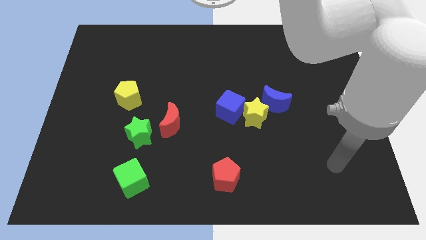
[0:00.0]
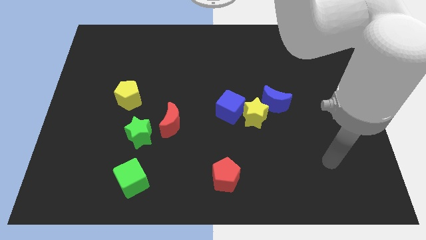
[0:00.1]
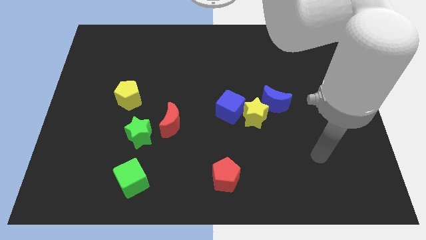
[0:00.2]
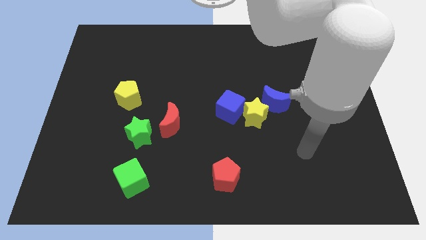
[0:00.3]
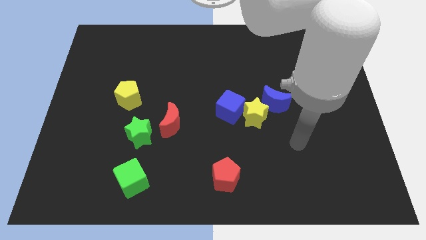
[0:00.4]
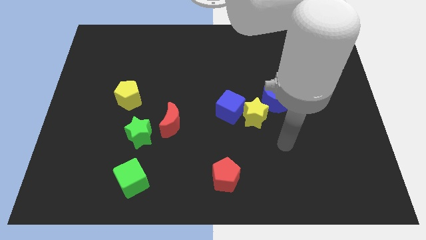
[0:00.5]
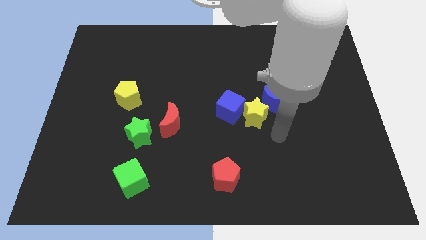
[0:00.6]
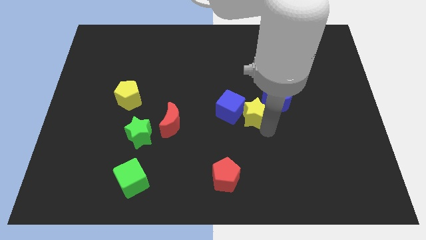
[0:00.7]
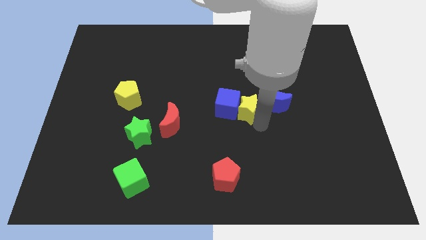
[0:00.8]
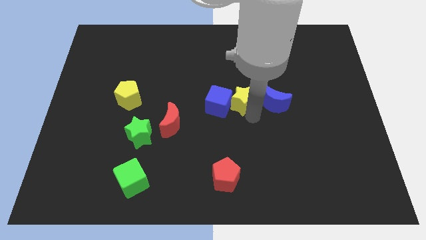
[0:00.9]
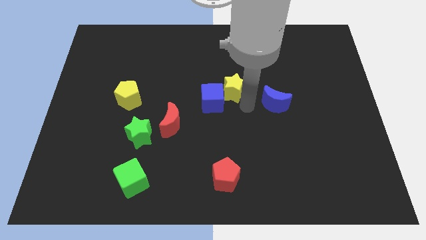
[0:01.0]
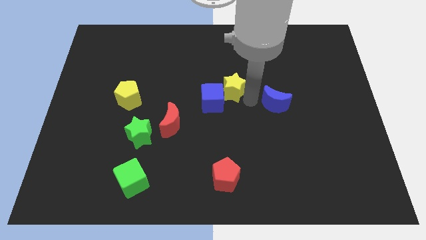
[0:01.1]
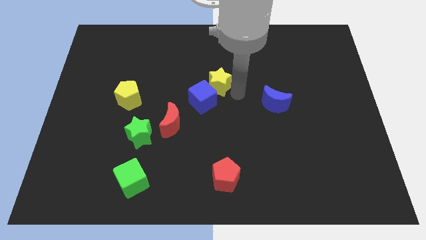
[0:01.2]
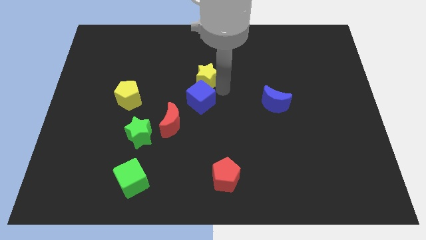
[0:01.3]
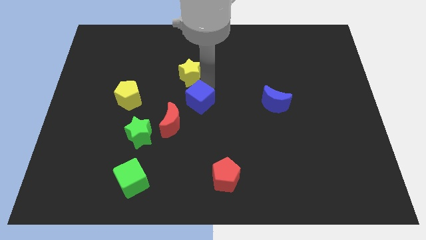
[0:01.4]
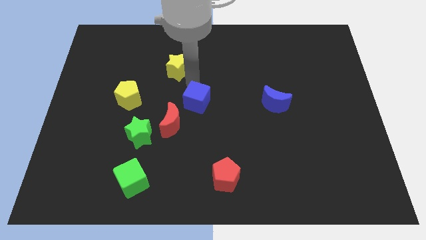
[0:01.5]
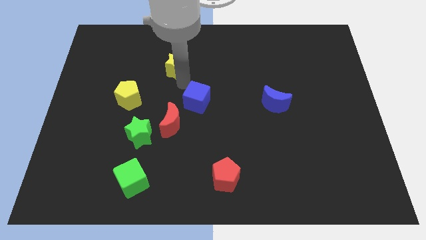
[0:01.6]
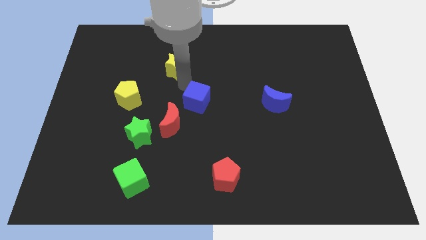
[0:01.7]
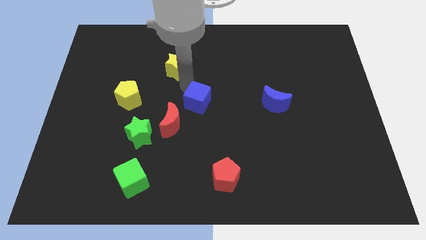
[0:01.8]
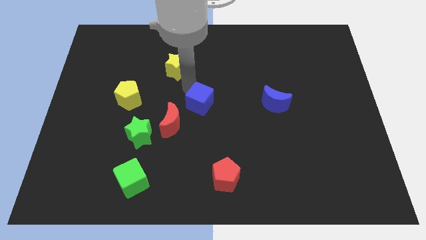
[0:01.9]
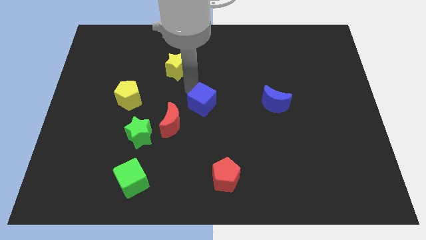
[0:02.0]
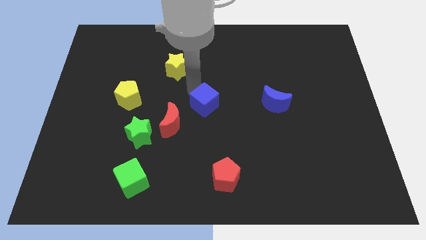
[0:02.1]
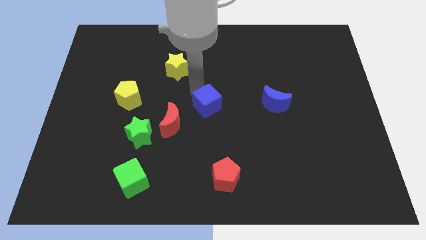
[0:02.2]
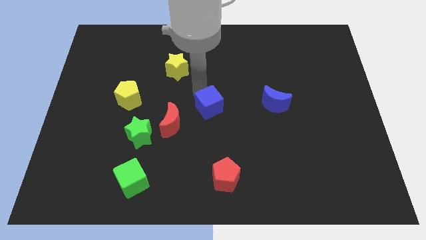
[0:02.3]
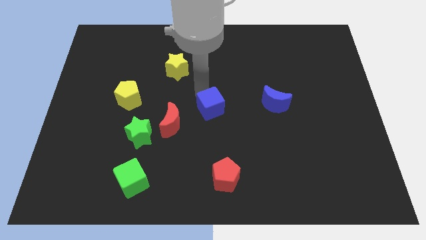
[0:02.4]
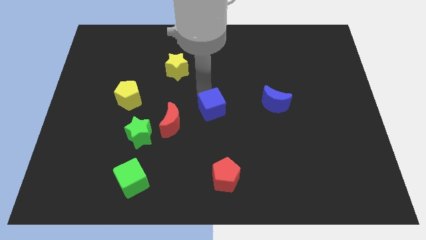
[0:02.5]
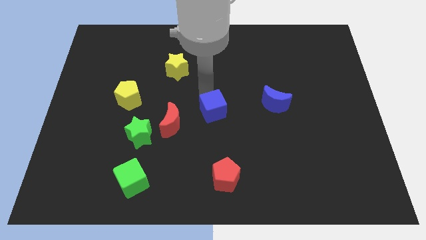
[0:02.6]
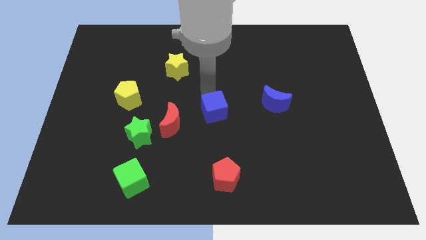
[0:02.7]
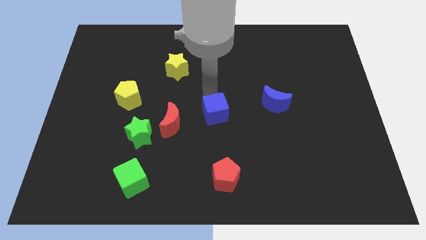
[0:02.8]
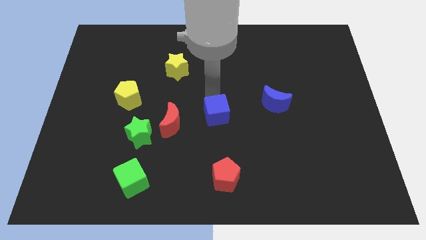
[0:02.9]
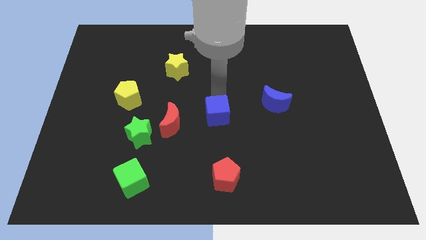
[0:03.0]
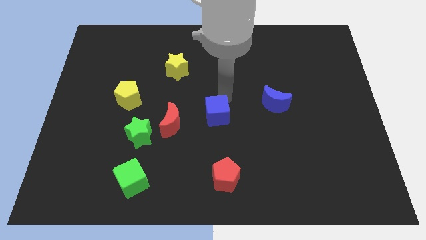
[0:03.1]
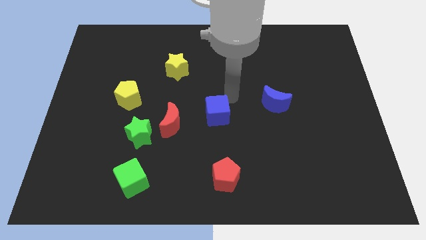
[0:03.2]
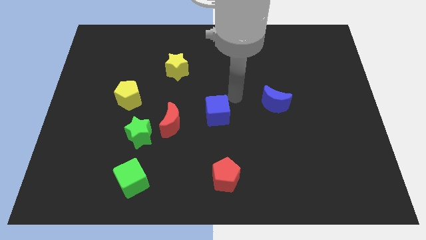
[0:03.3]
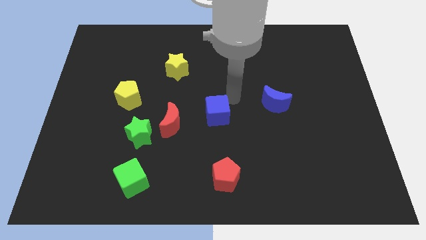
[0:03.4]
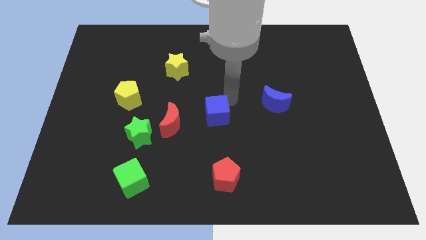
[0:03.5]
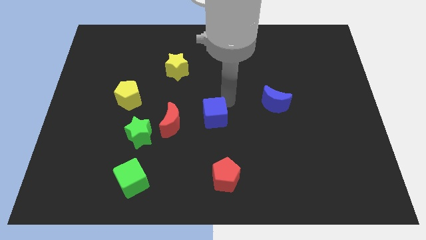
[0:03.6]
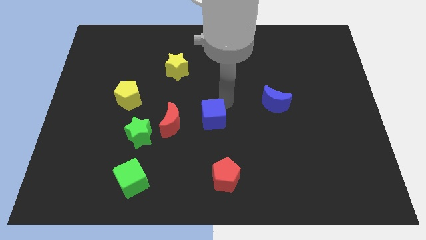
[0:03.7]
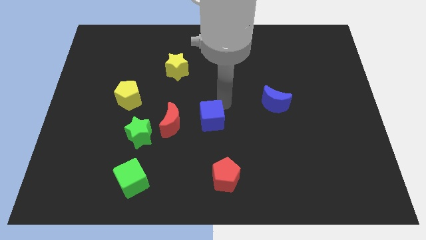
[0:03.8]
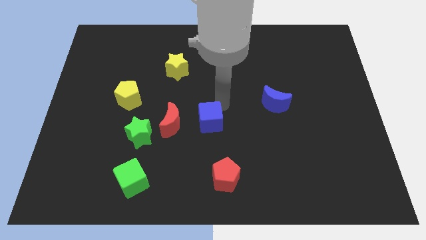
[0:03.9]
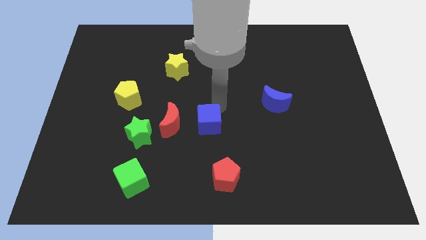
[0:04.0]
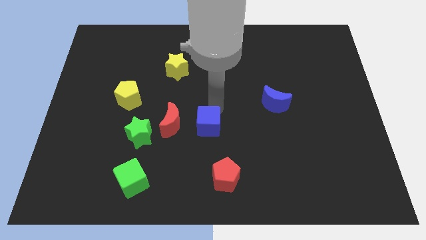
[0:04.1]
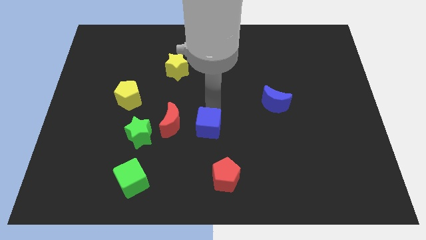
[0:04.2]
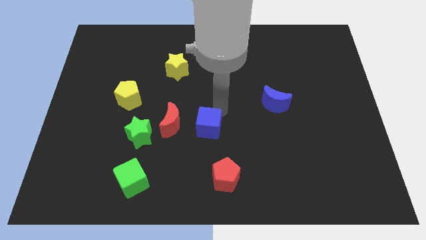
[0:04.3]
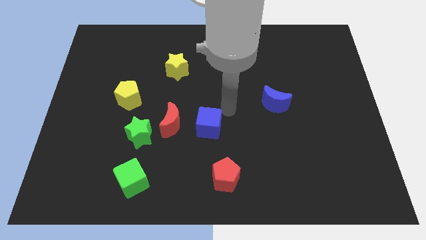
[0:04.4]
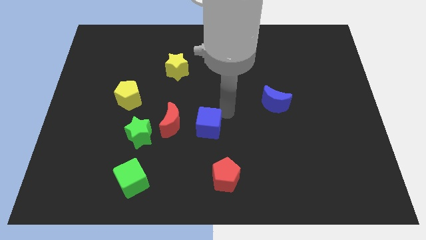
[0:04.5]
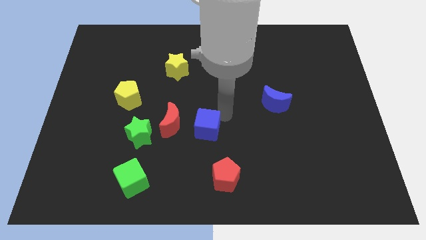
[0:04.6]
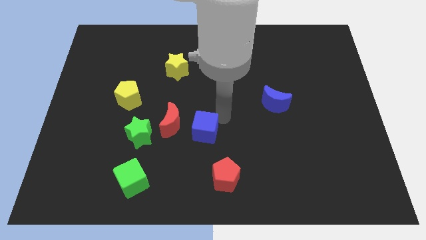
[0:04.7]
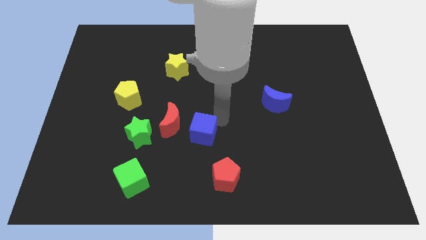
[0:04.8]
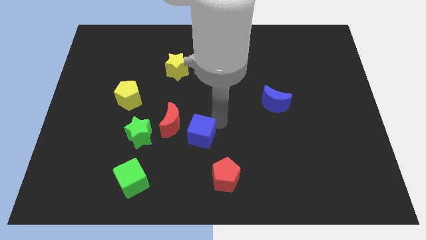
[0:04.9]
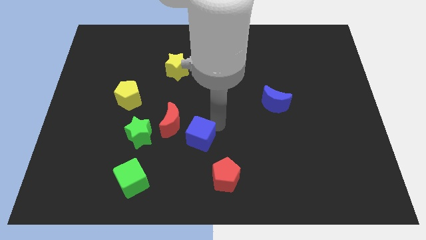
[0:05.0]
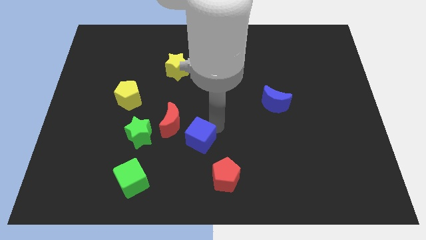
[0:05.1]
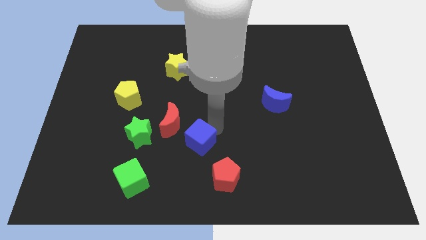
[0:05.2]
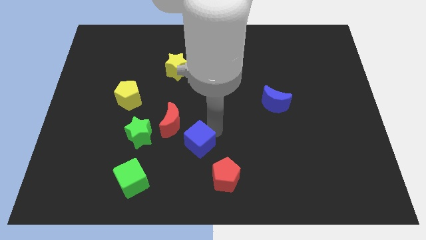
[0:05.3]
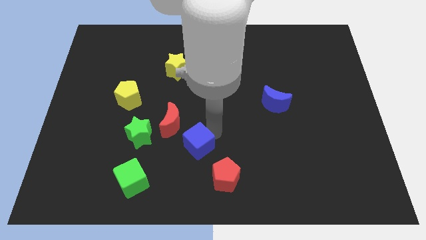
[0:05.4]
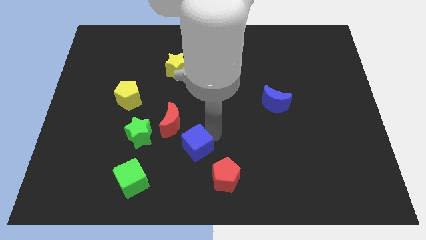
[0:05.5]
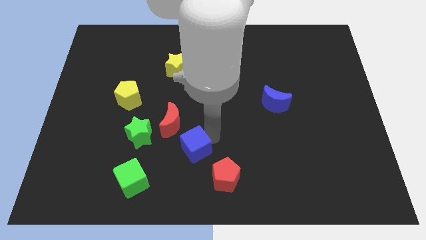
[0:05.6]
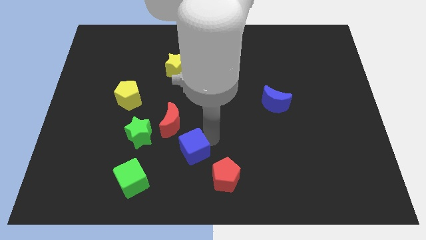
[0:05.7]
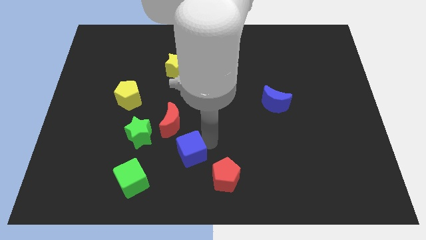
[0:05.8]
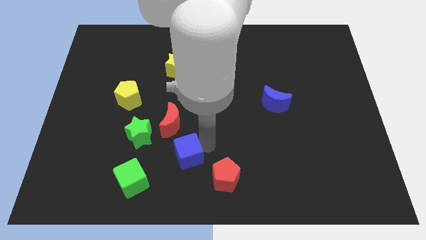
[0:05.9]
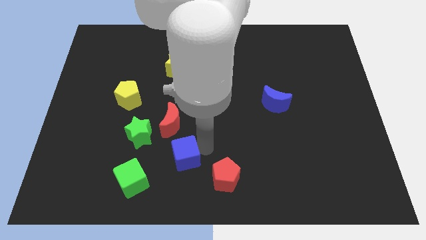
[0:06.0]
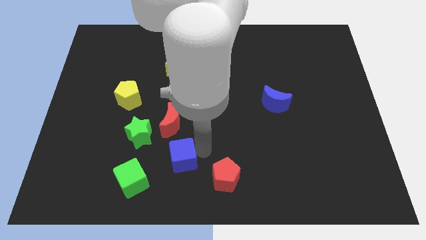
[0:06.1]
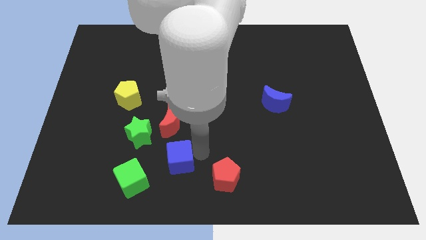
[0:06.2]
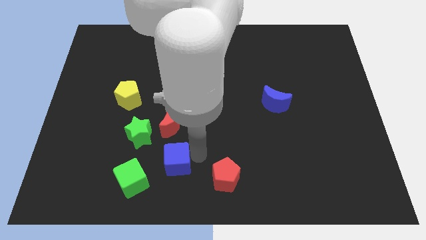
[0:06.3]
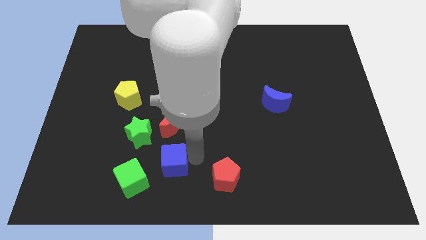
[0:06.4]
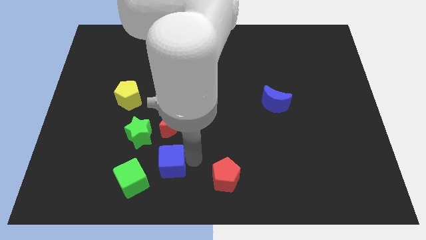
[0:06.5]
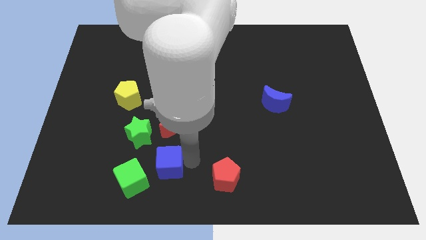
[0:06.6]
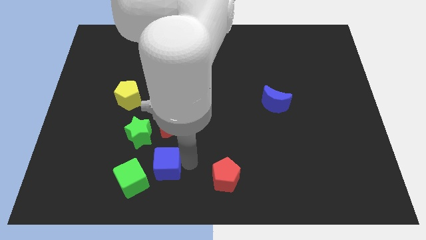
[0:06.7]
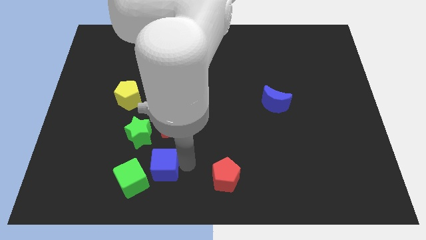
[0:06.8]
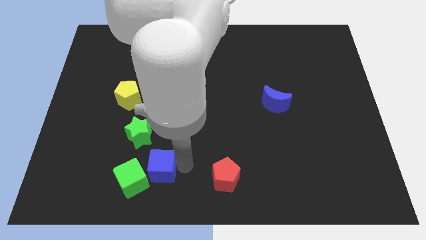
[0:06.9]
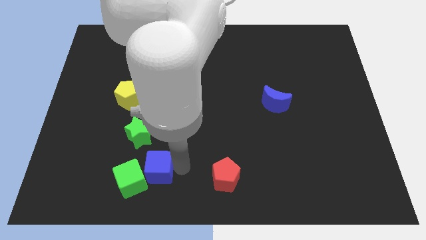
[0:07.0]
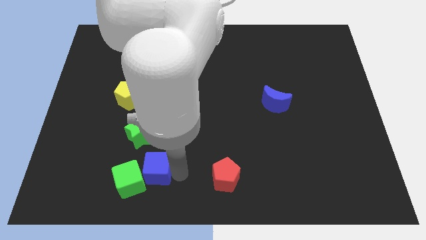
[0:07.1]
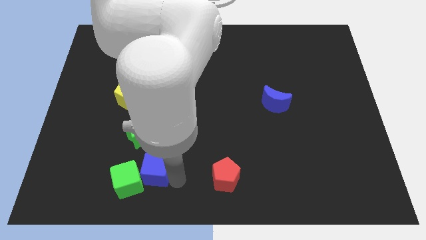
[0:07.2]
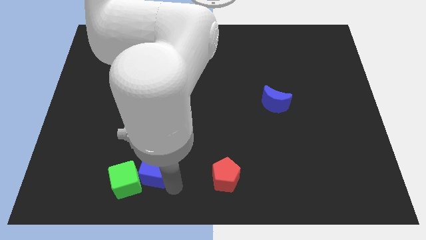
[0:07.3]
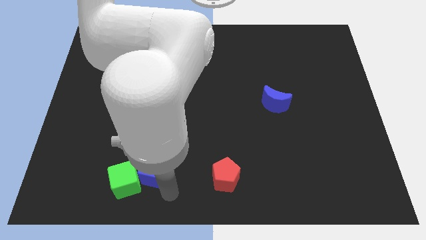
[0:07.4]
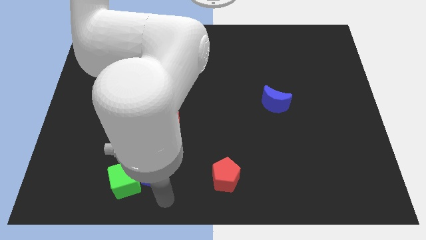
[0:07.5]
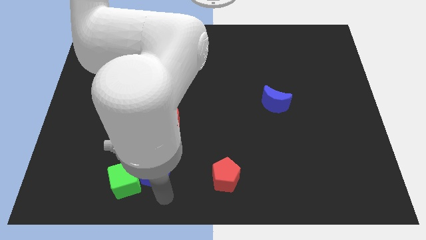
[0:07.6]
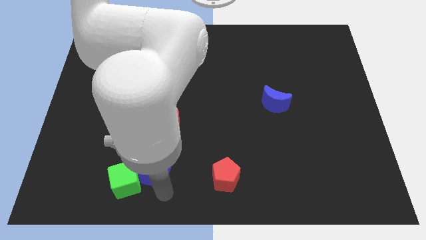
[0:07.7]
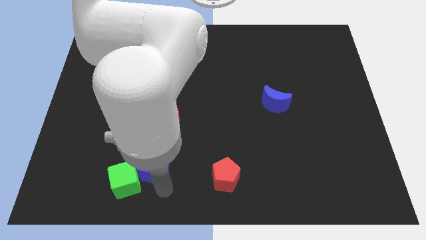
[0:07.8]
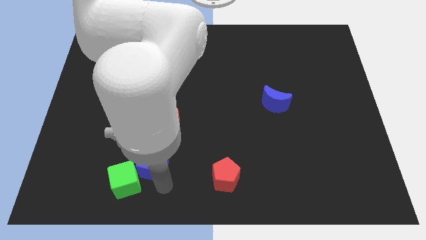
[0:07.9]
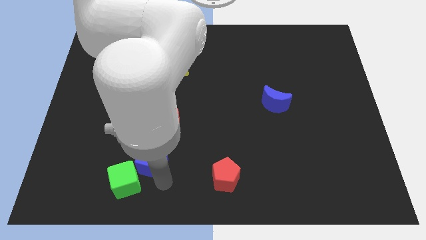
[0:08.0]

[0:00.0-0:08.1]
put the blue cube to the bottom left of the red moon
